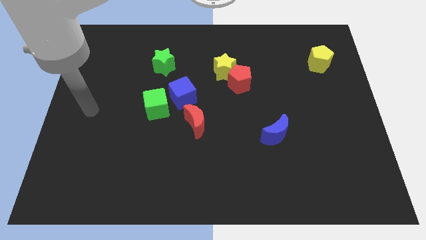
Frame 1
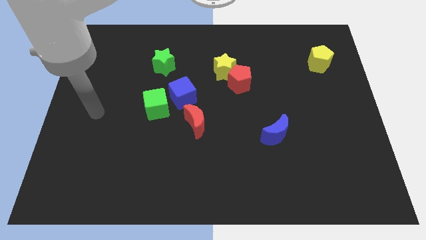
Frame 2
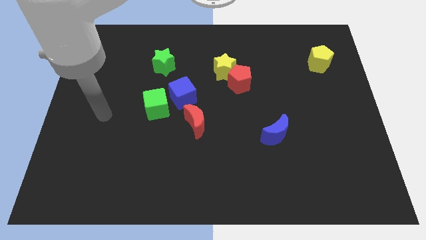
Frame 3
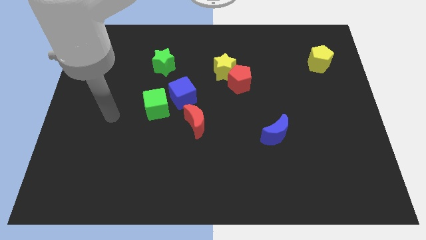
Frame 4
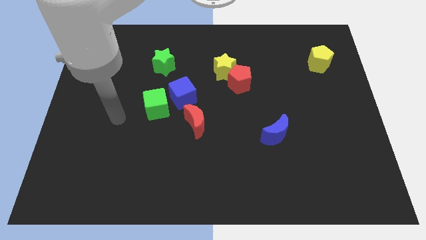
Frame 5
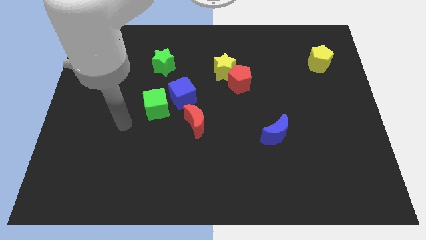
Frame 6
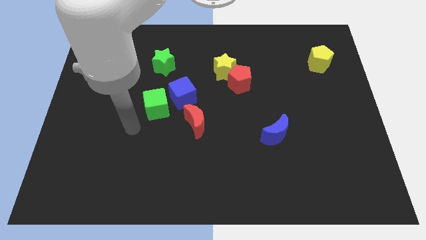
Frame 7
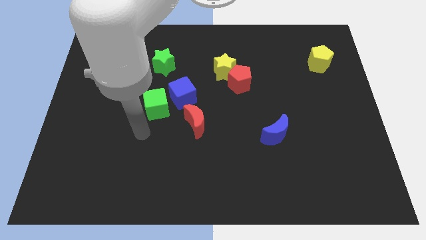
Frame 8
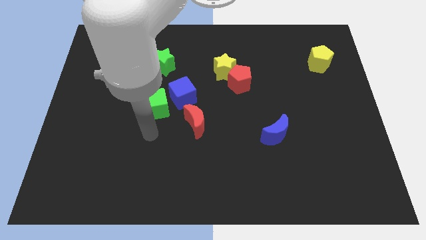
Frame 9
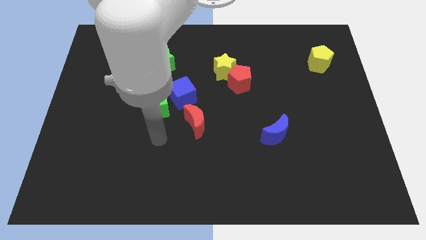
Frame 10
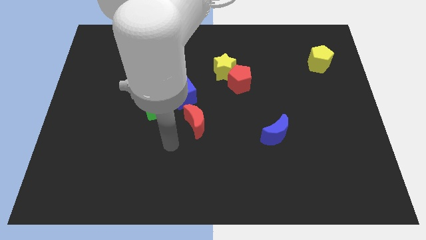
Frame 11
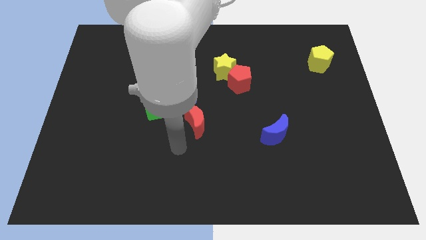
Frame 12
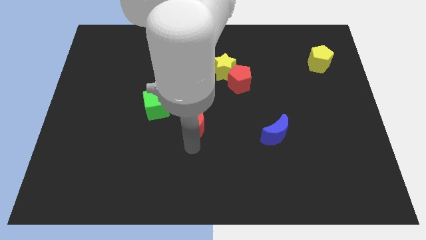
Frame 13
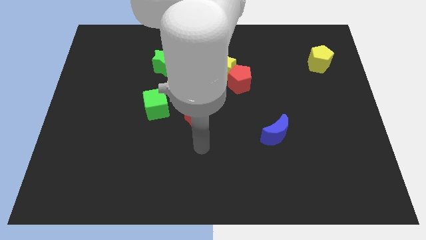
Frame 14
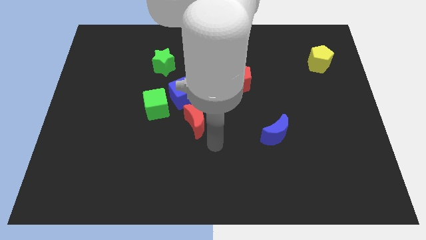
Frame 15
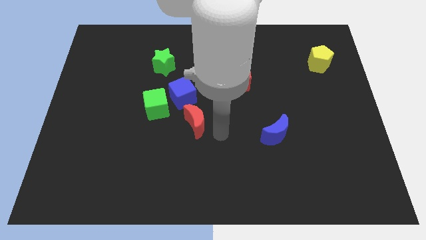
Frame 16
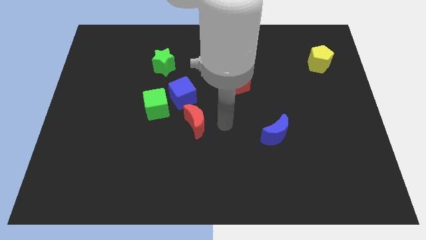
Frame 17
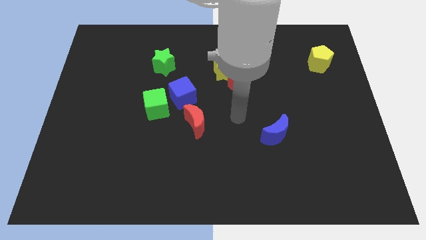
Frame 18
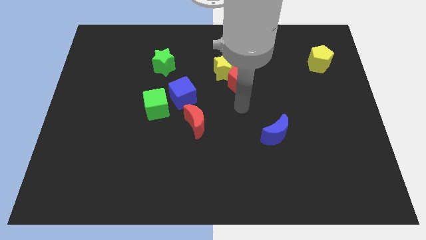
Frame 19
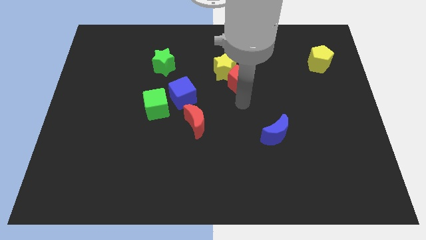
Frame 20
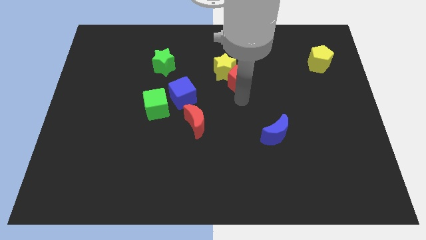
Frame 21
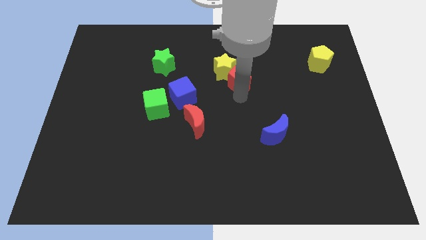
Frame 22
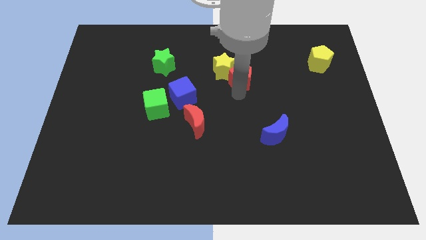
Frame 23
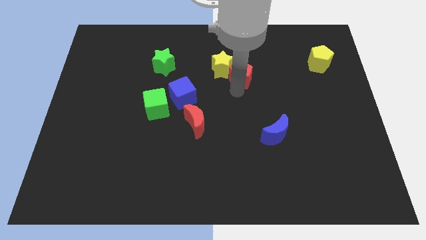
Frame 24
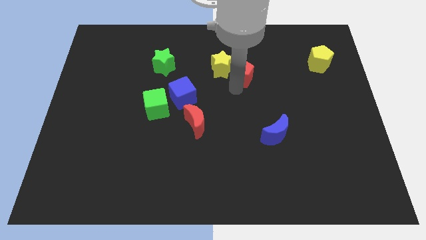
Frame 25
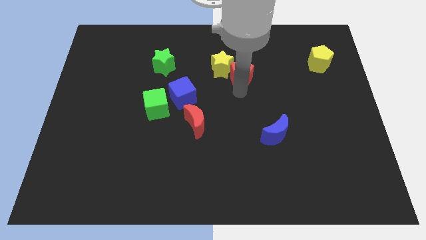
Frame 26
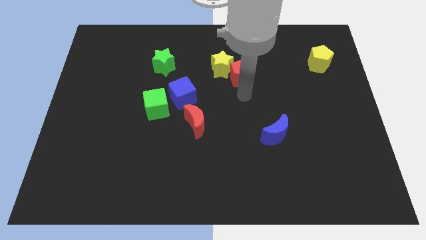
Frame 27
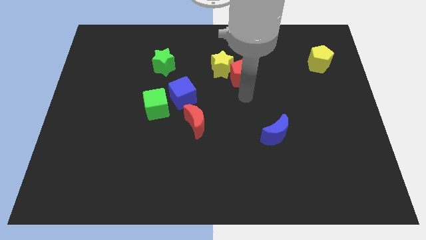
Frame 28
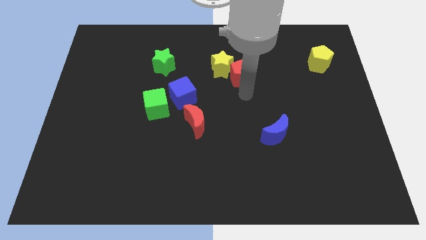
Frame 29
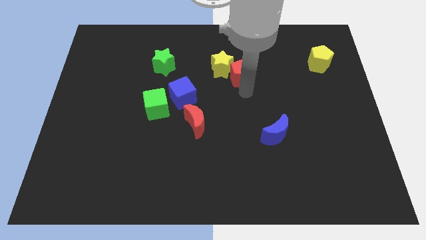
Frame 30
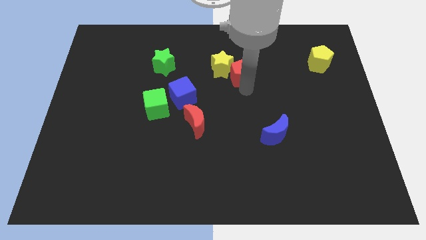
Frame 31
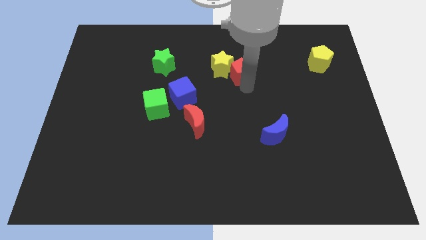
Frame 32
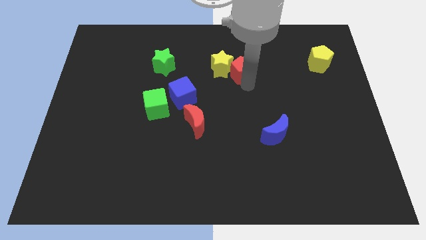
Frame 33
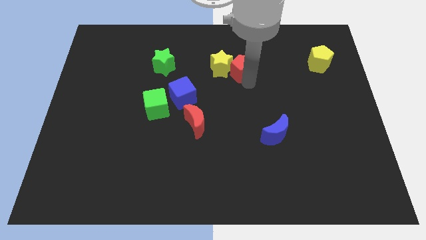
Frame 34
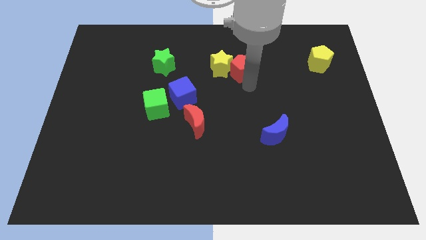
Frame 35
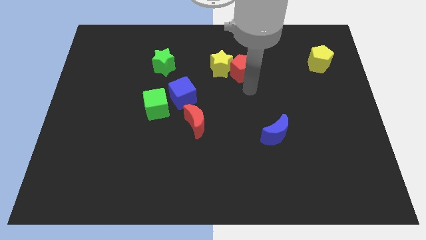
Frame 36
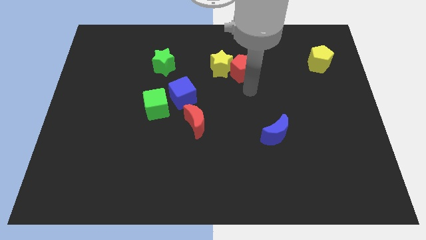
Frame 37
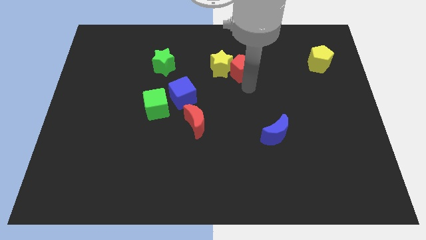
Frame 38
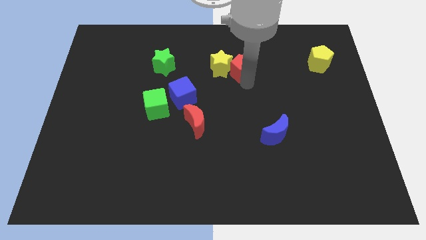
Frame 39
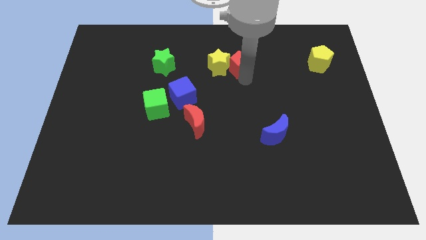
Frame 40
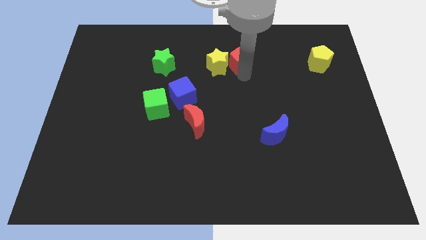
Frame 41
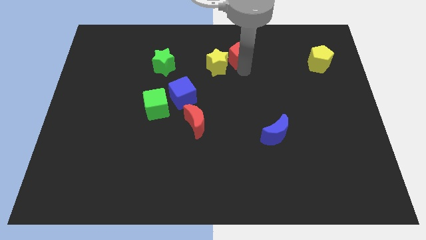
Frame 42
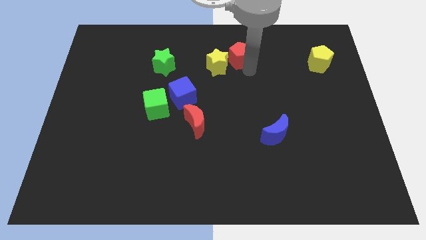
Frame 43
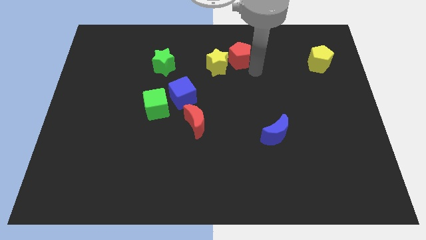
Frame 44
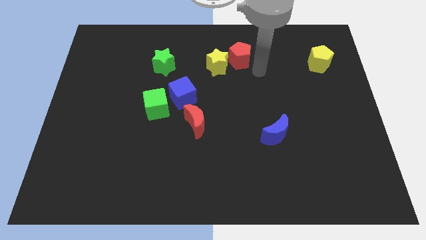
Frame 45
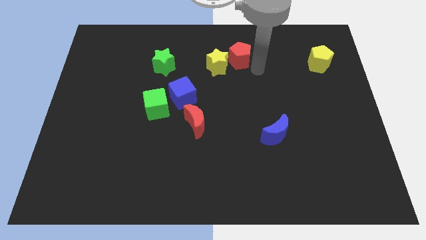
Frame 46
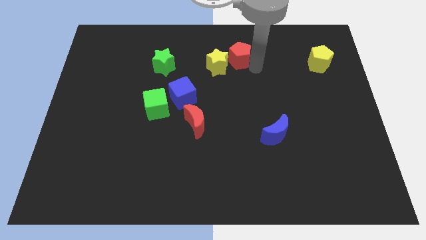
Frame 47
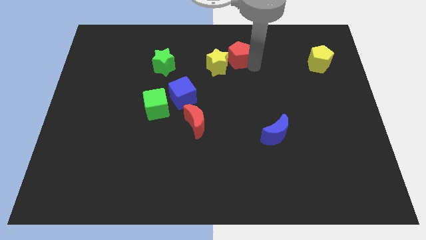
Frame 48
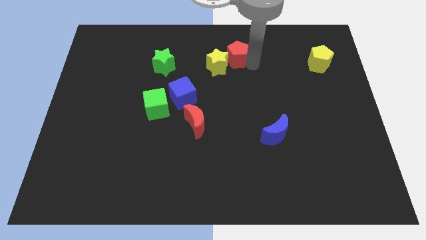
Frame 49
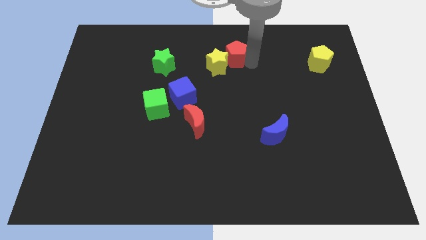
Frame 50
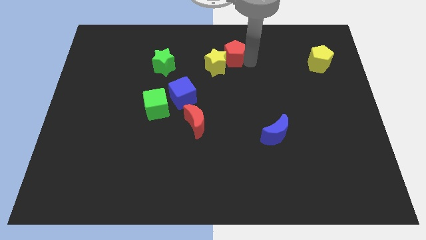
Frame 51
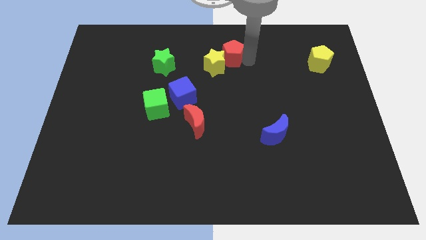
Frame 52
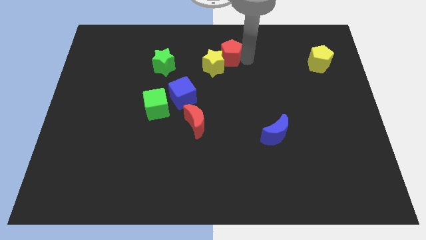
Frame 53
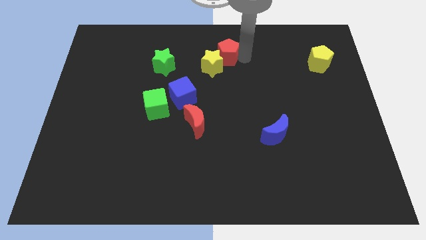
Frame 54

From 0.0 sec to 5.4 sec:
slide the red pentagon to the top side
